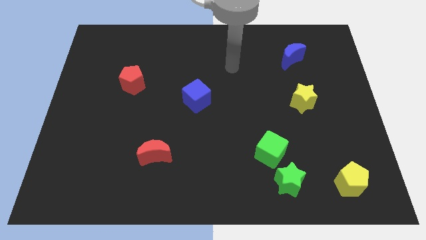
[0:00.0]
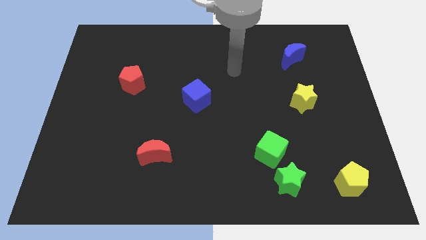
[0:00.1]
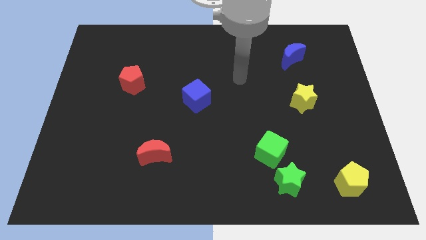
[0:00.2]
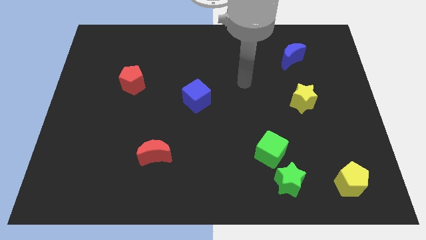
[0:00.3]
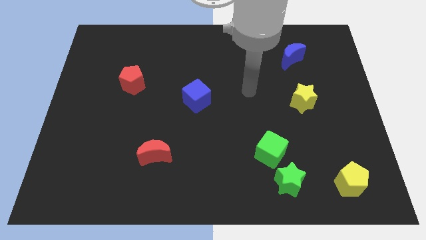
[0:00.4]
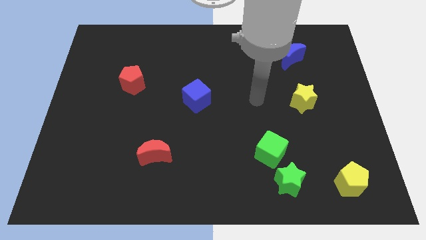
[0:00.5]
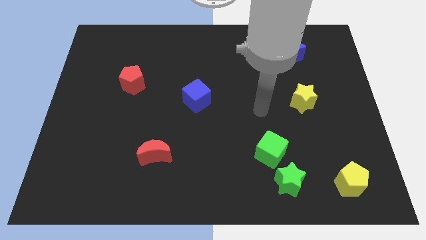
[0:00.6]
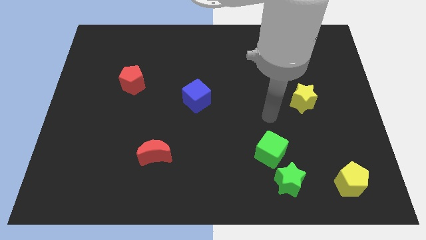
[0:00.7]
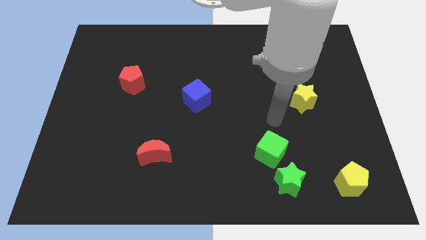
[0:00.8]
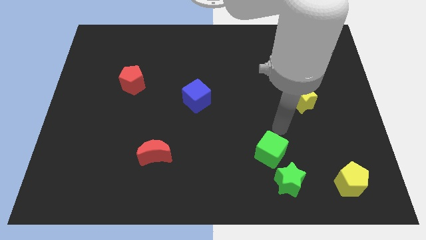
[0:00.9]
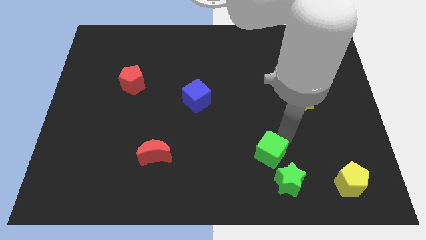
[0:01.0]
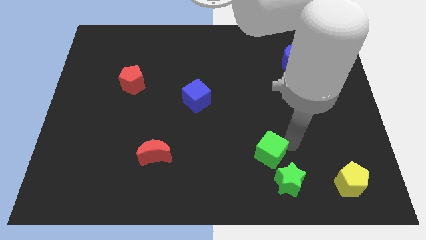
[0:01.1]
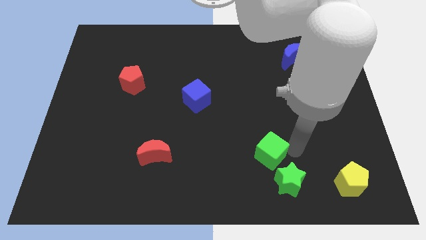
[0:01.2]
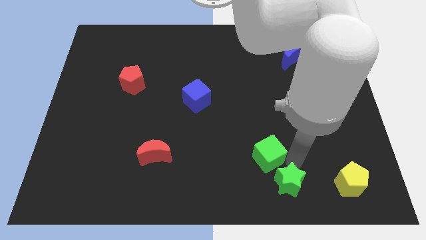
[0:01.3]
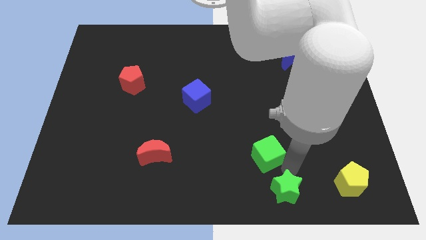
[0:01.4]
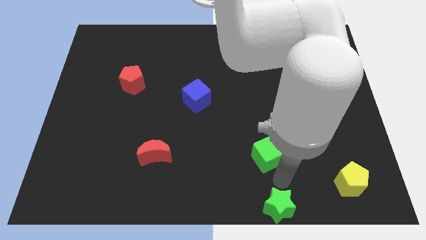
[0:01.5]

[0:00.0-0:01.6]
pull the green cube apart from the green star

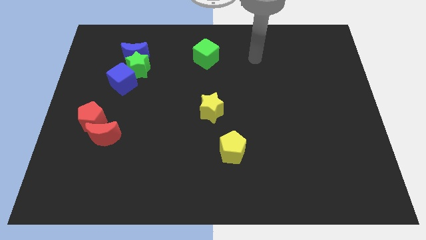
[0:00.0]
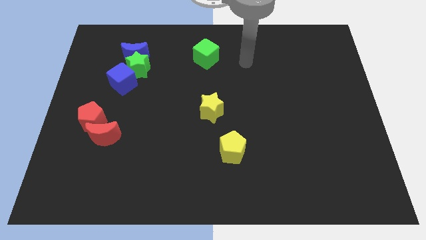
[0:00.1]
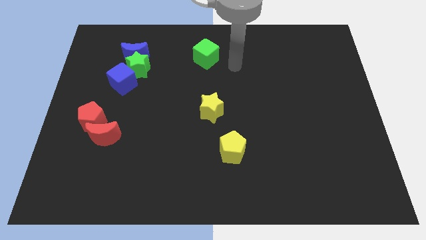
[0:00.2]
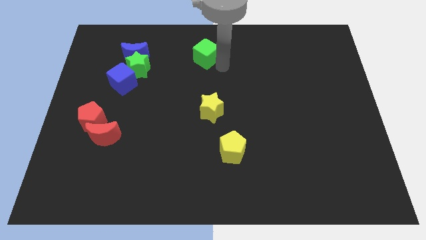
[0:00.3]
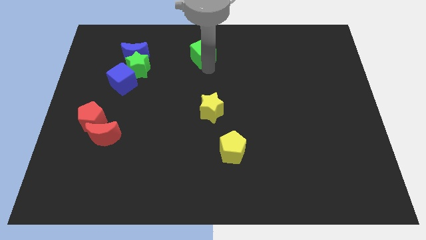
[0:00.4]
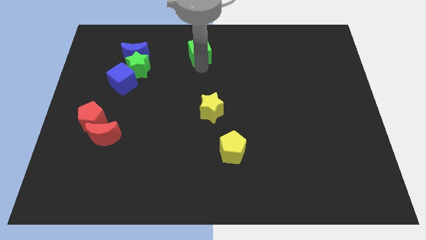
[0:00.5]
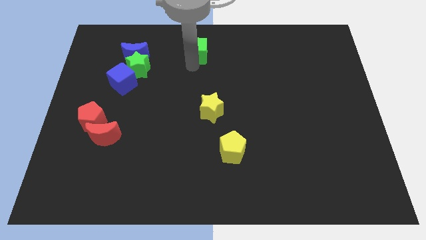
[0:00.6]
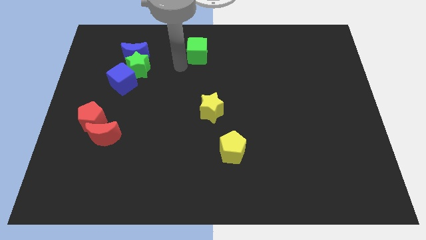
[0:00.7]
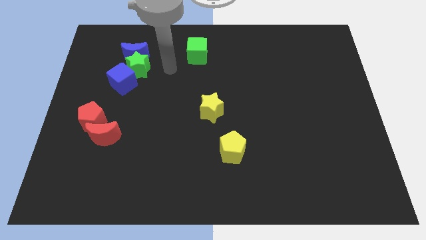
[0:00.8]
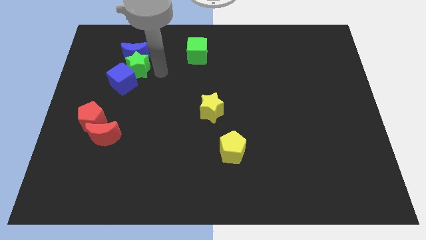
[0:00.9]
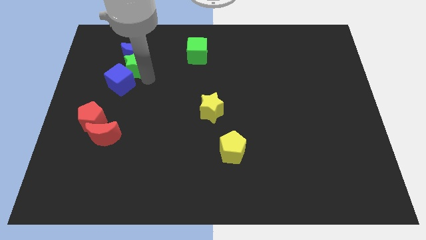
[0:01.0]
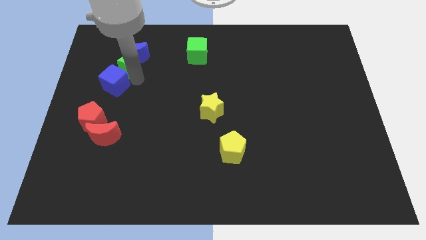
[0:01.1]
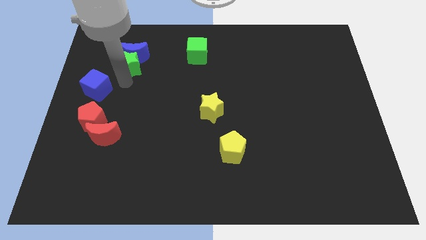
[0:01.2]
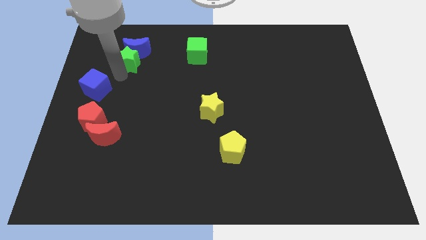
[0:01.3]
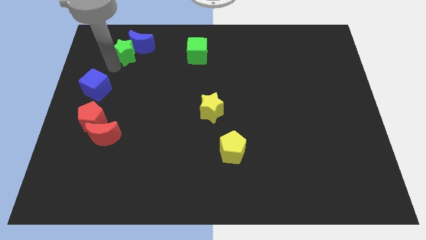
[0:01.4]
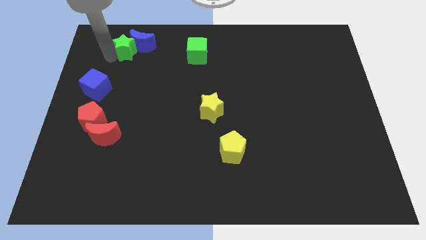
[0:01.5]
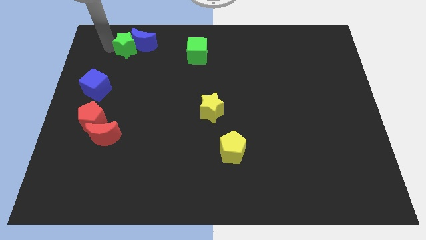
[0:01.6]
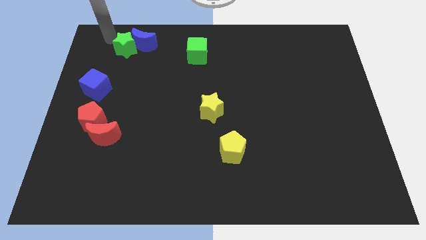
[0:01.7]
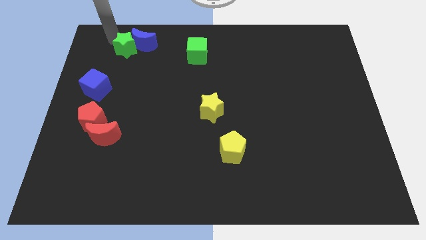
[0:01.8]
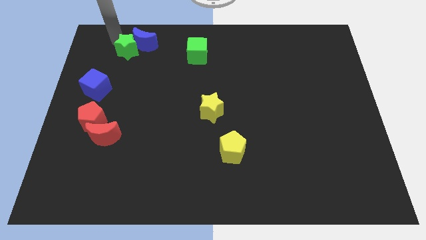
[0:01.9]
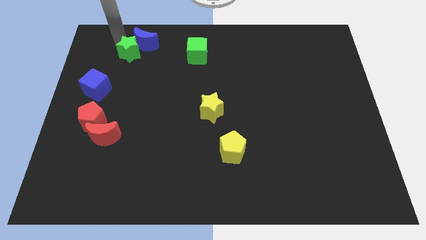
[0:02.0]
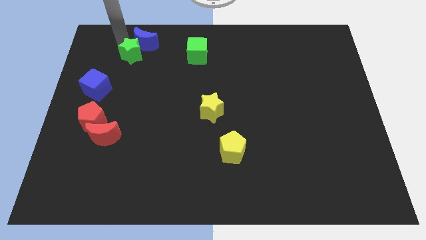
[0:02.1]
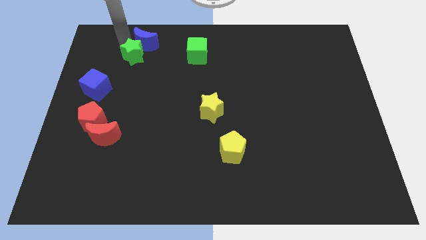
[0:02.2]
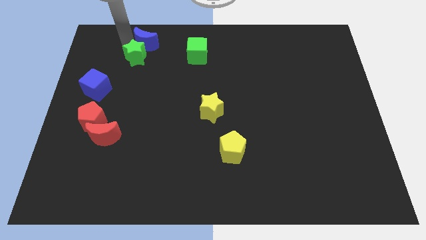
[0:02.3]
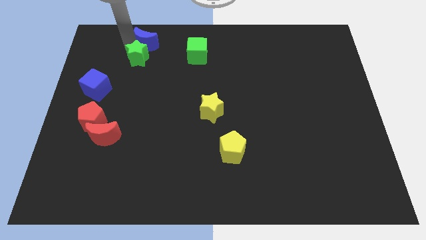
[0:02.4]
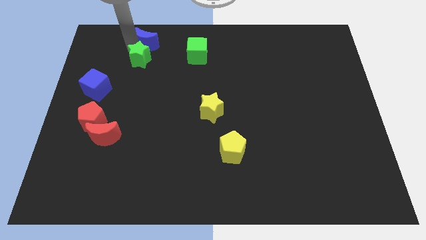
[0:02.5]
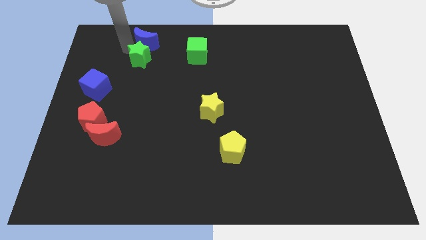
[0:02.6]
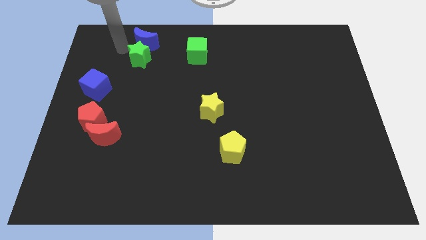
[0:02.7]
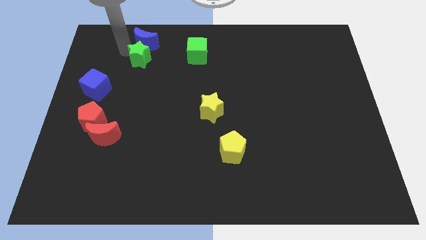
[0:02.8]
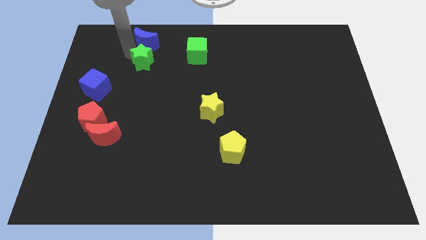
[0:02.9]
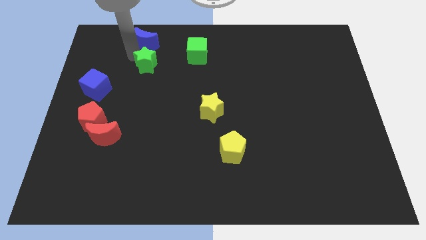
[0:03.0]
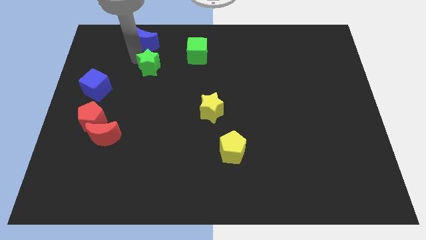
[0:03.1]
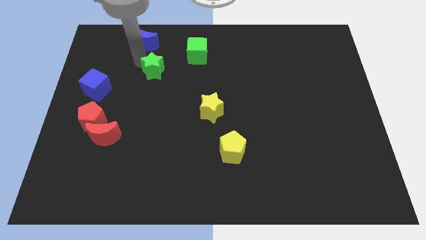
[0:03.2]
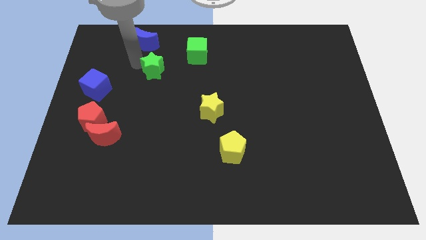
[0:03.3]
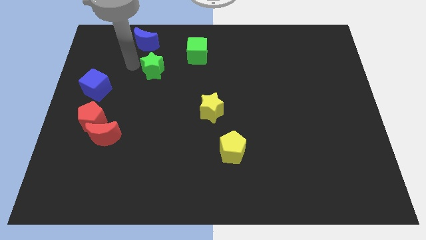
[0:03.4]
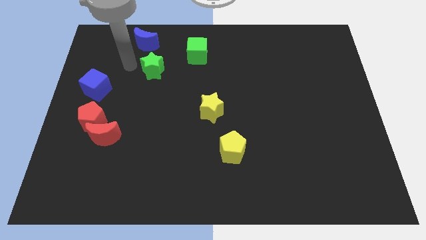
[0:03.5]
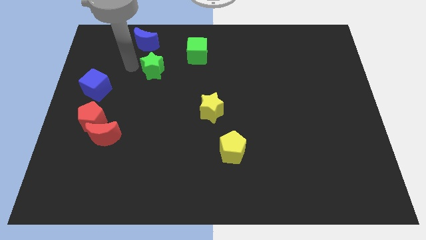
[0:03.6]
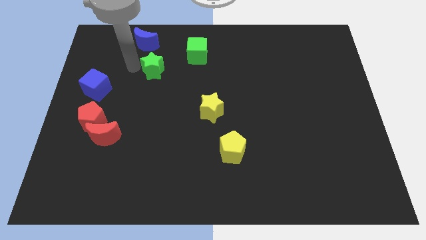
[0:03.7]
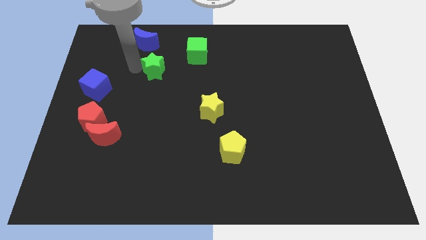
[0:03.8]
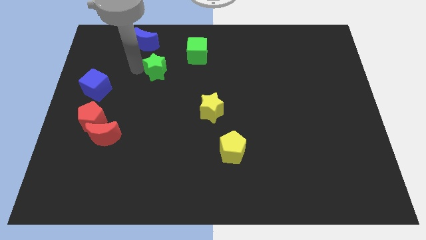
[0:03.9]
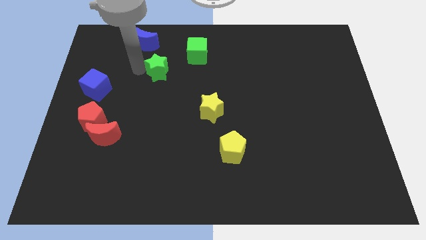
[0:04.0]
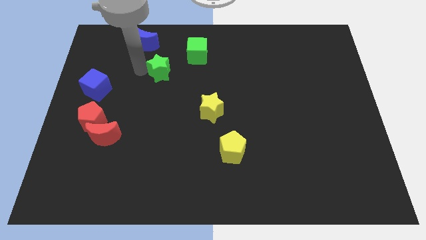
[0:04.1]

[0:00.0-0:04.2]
move the green star away from the blue moon and blue cube

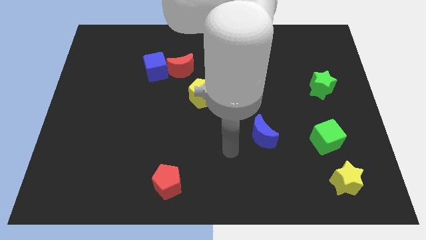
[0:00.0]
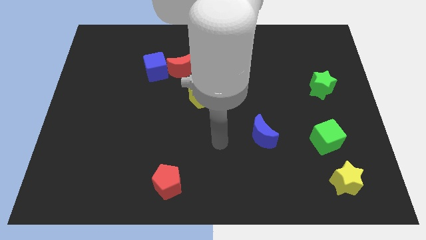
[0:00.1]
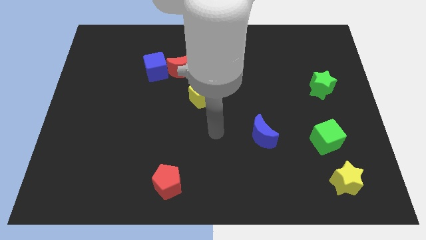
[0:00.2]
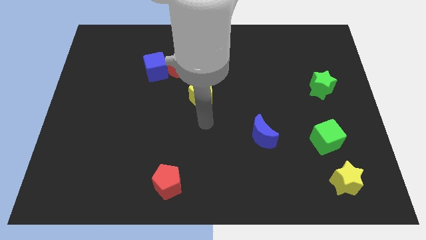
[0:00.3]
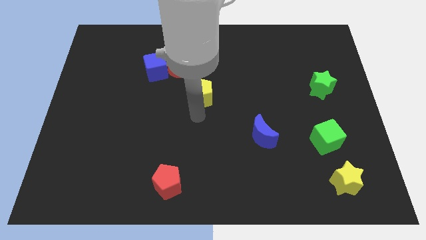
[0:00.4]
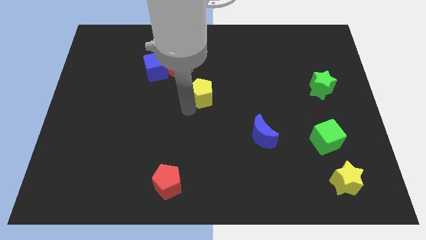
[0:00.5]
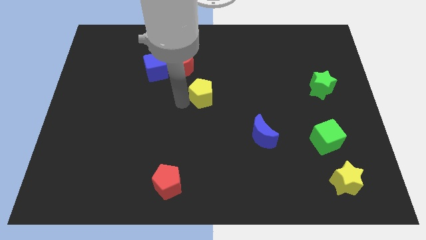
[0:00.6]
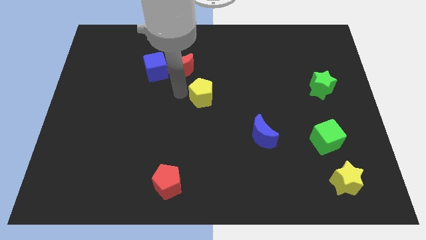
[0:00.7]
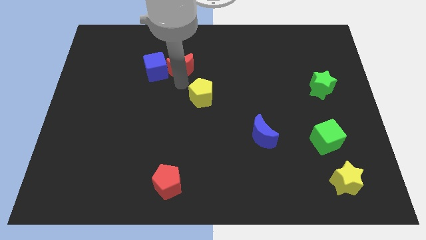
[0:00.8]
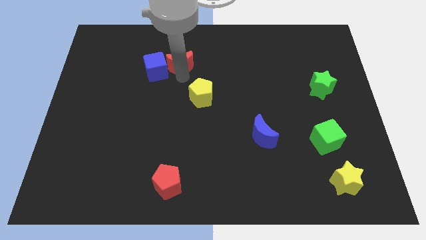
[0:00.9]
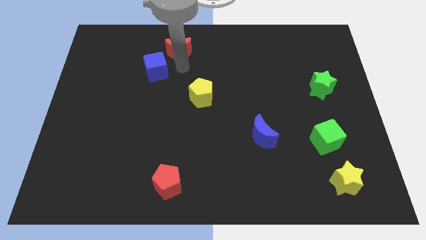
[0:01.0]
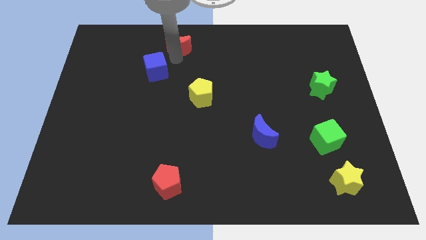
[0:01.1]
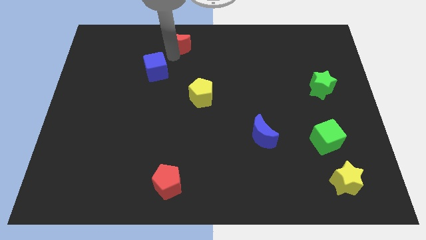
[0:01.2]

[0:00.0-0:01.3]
separate the blue cube from the red moon

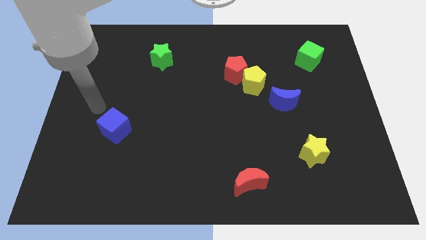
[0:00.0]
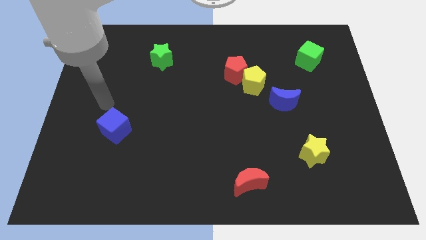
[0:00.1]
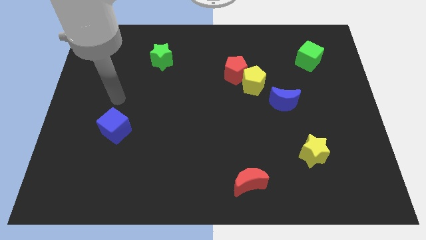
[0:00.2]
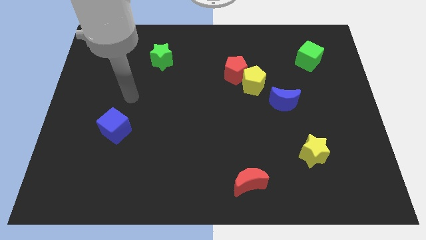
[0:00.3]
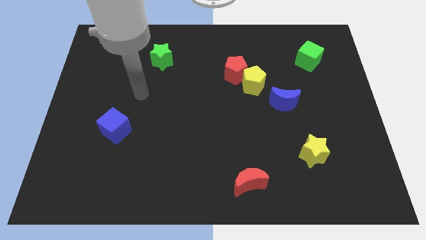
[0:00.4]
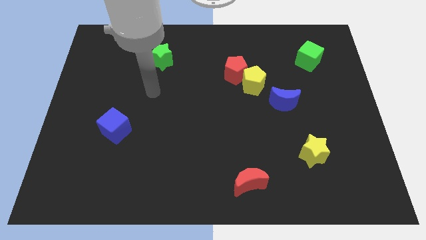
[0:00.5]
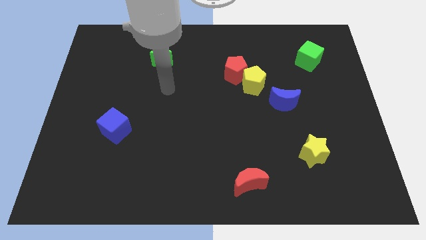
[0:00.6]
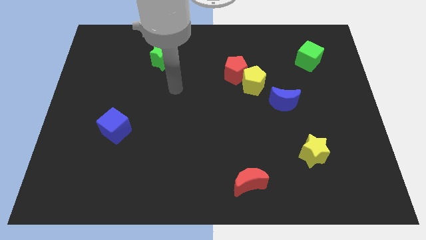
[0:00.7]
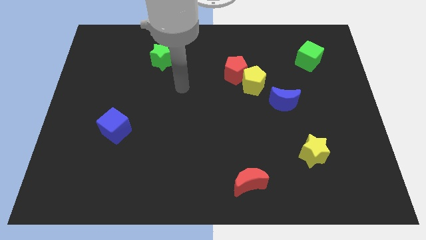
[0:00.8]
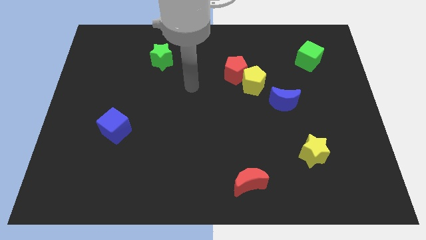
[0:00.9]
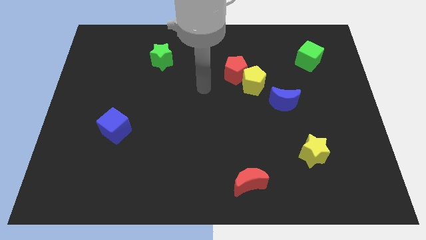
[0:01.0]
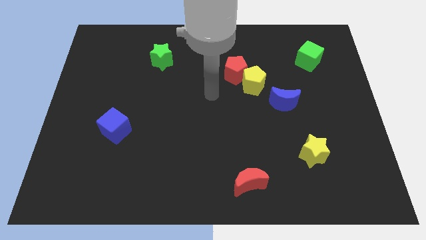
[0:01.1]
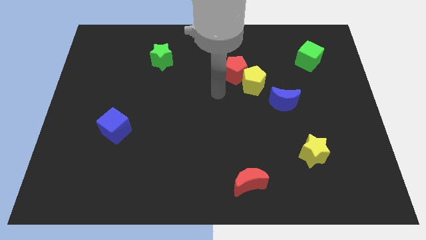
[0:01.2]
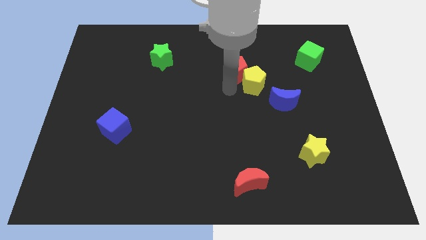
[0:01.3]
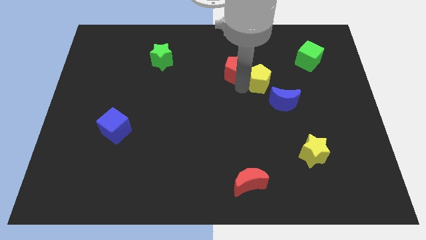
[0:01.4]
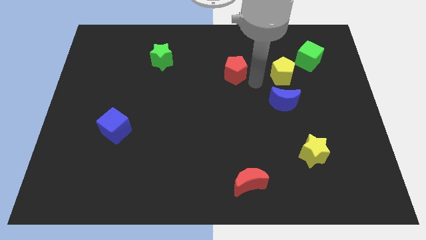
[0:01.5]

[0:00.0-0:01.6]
separate the red pentagon from the yellow pentagon

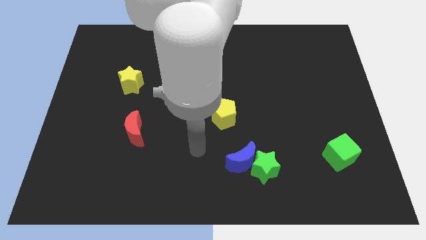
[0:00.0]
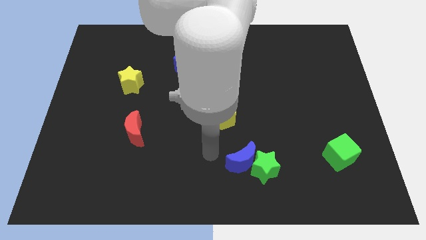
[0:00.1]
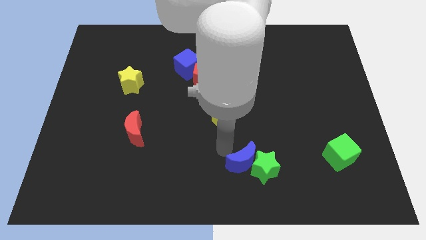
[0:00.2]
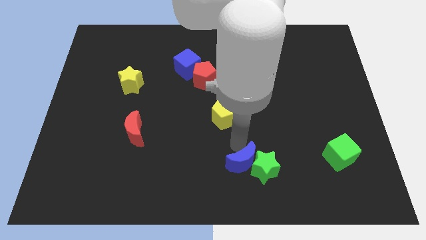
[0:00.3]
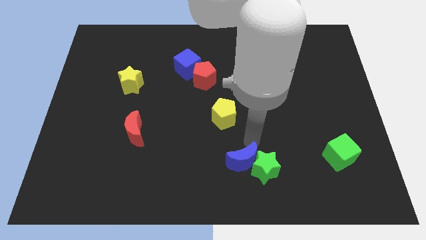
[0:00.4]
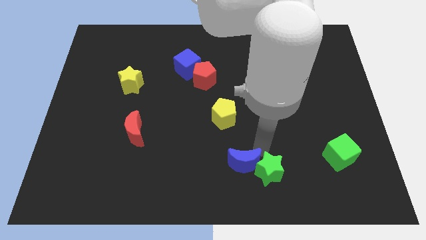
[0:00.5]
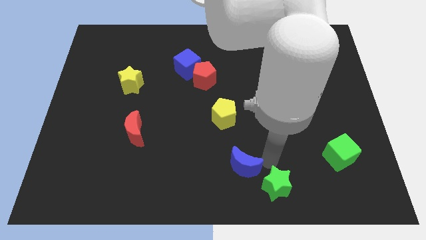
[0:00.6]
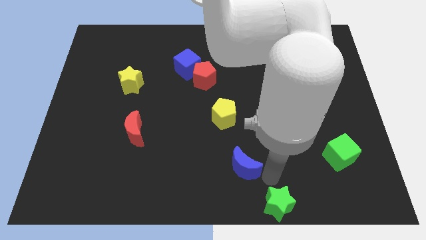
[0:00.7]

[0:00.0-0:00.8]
separate the blue moon from the green star
